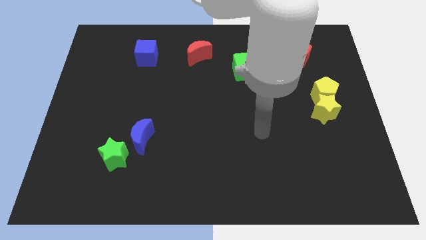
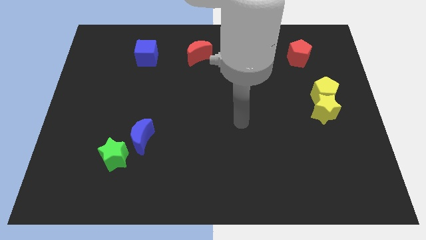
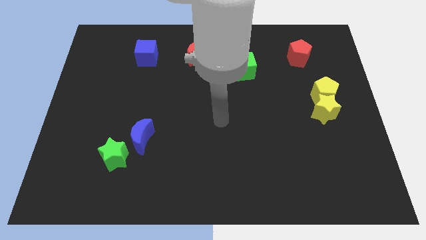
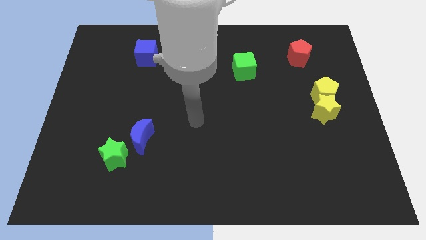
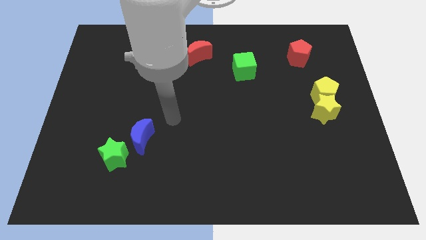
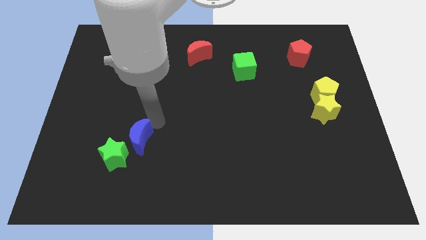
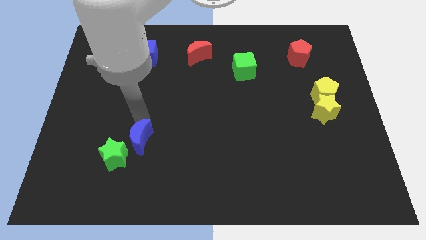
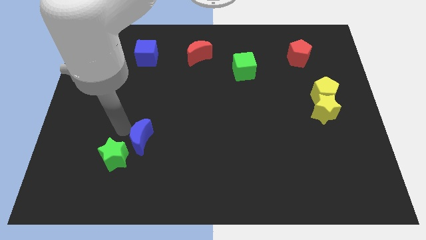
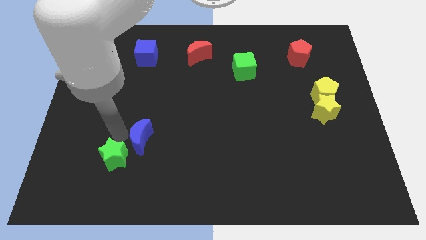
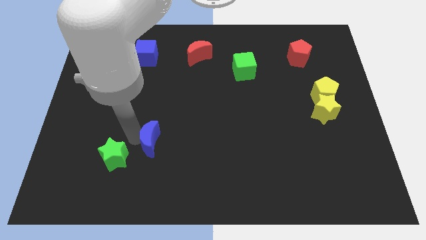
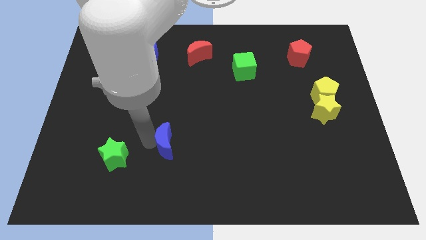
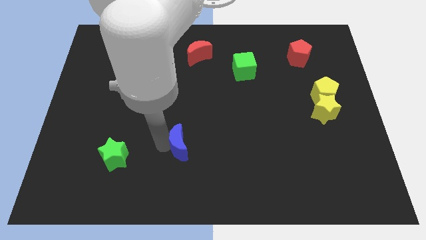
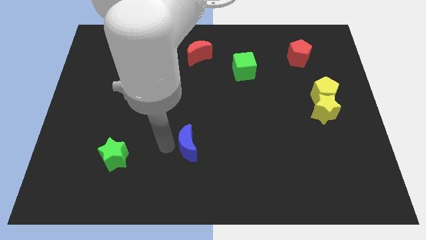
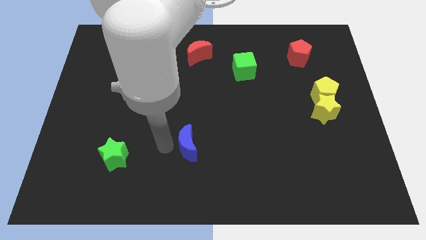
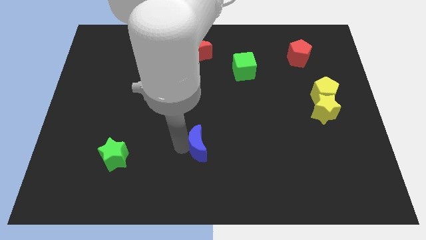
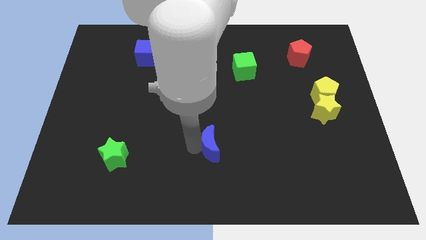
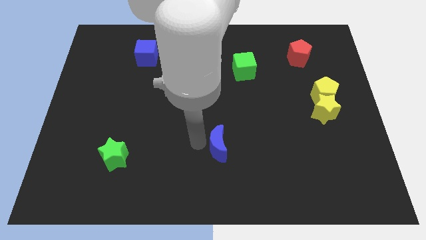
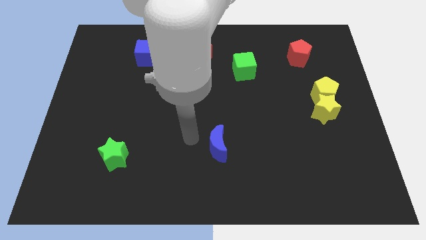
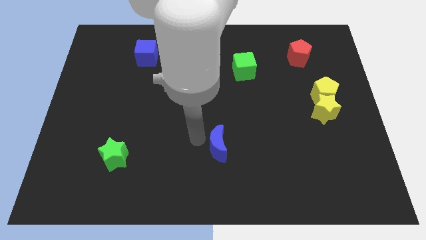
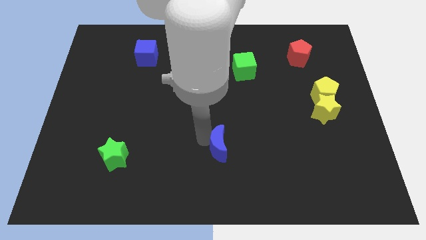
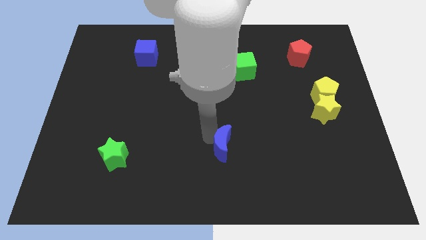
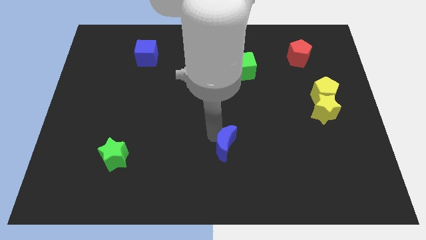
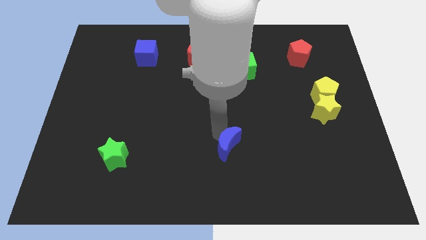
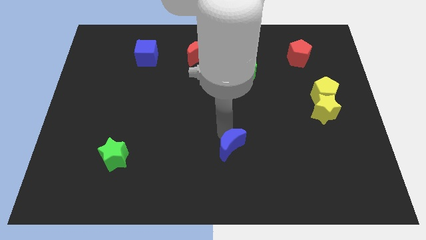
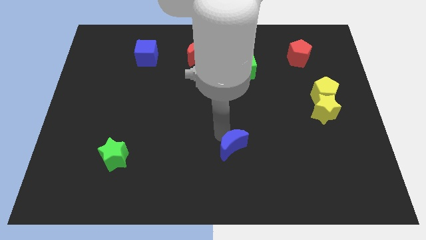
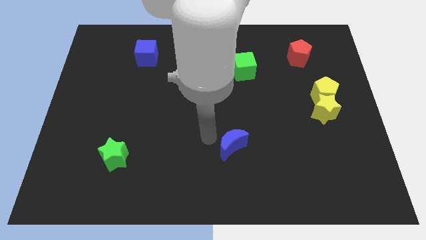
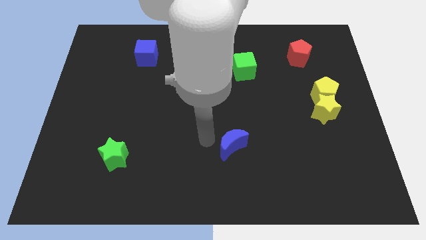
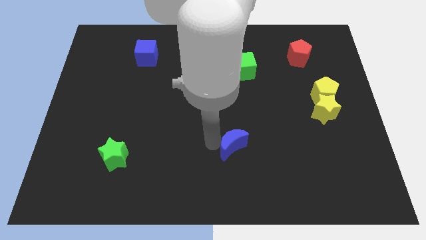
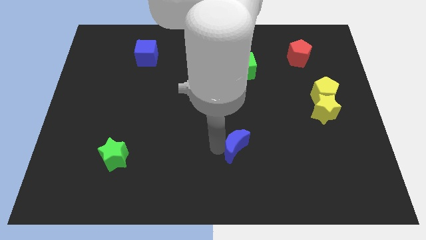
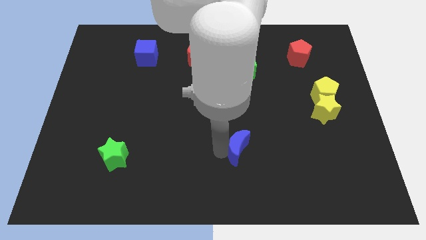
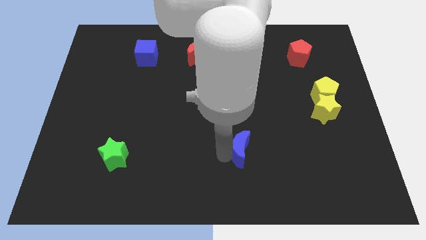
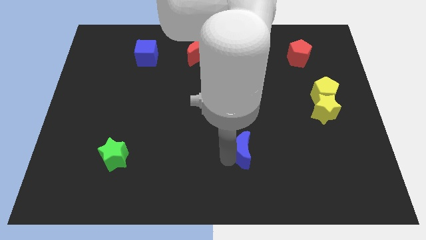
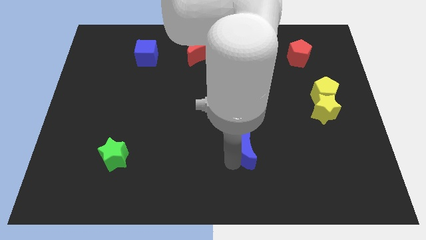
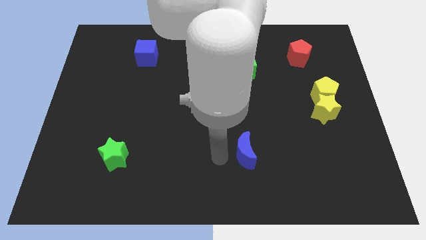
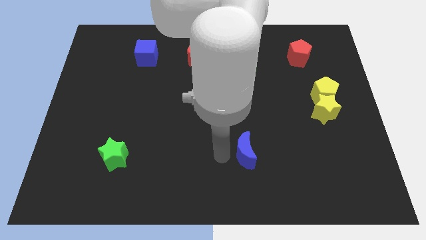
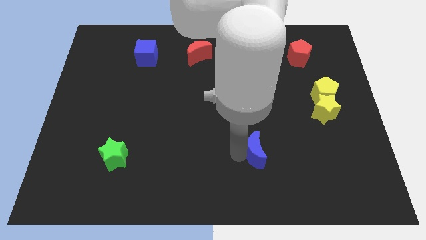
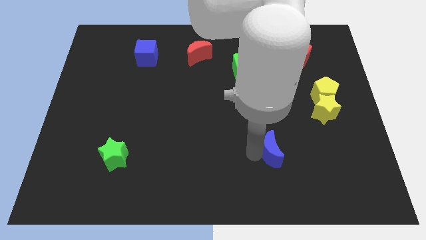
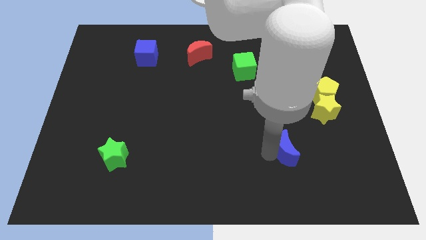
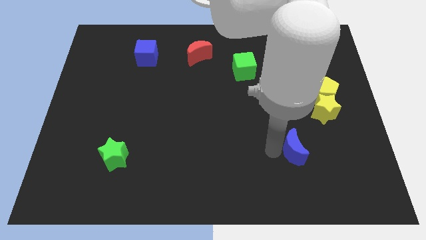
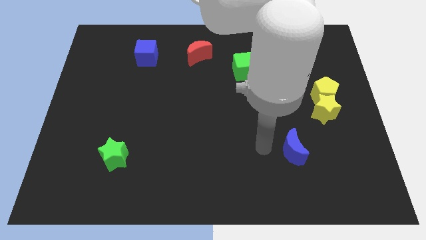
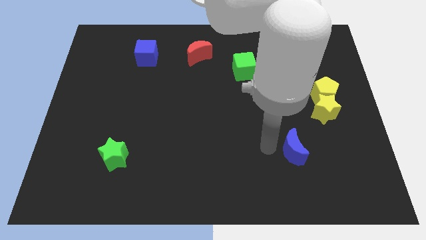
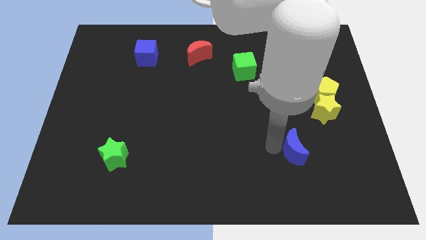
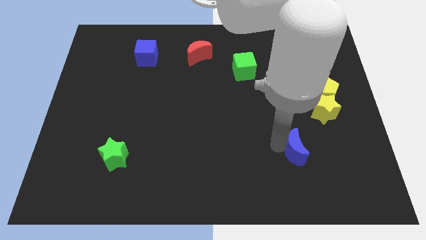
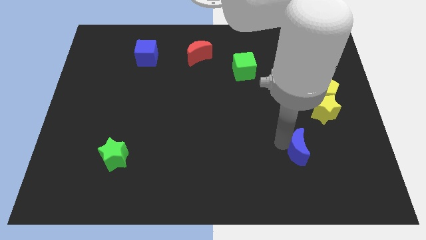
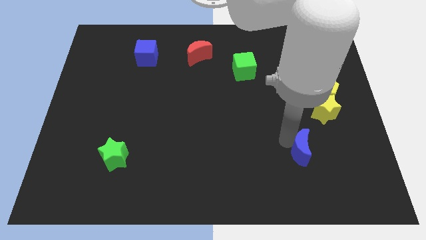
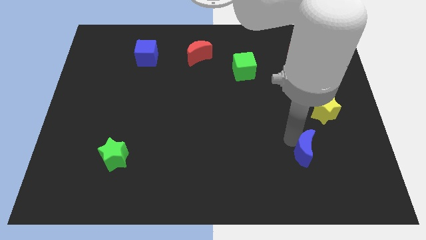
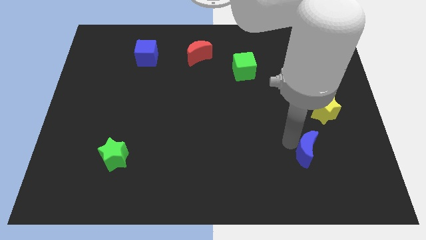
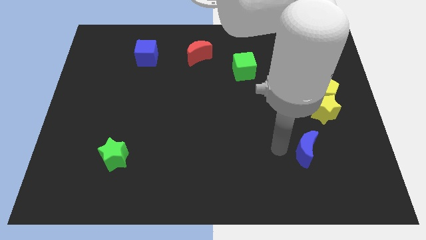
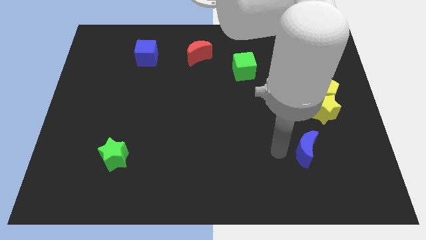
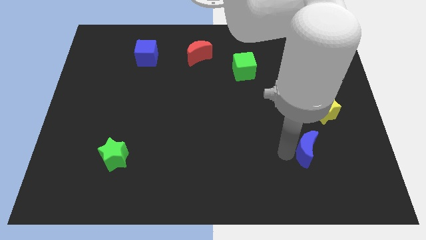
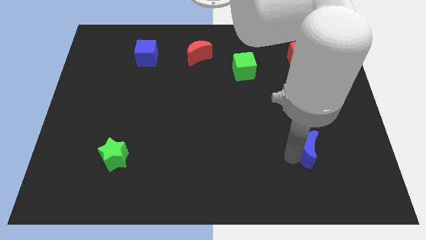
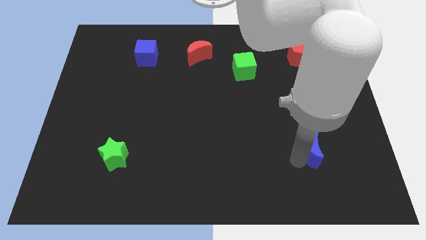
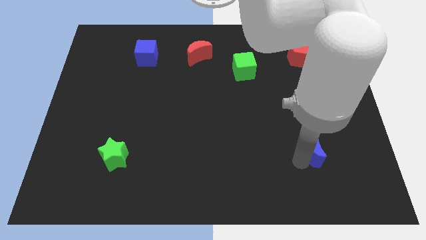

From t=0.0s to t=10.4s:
slide the blue moon to the bottom of the yellow star

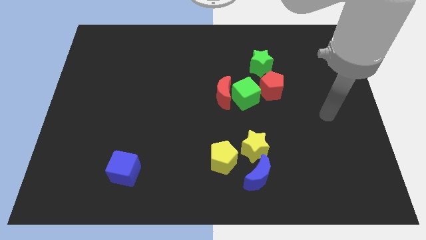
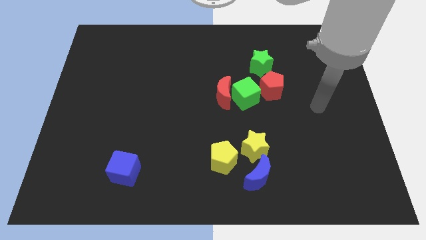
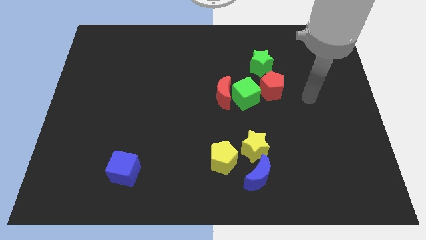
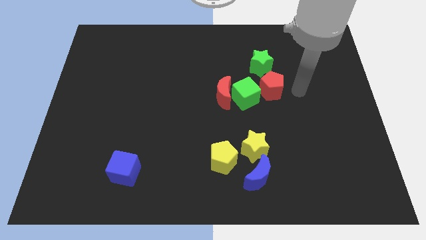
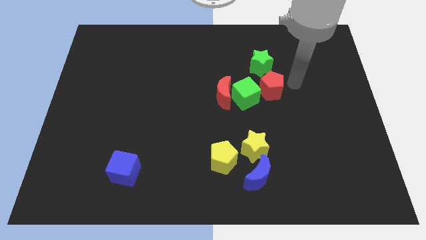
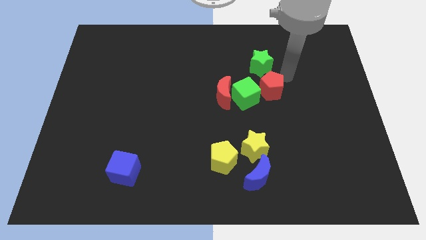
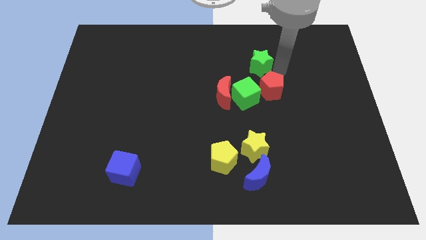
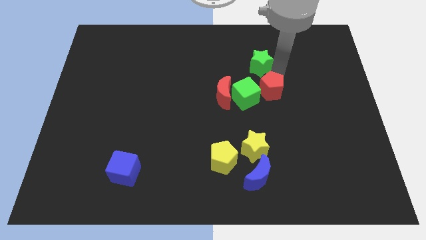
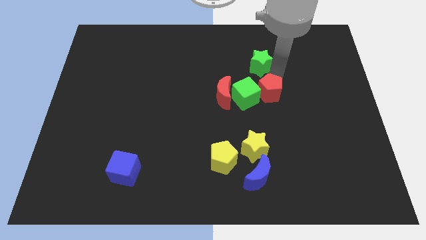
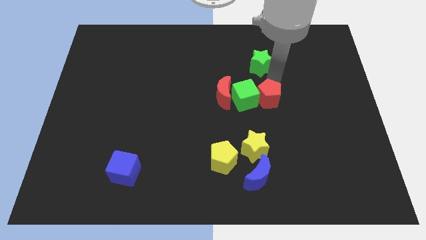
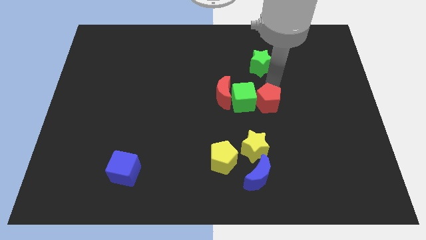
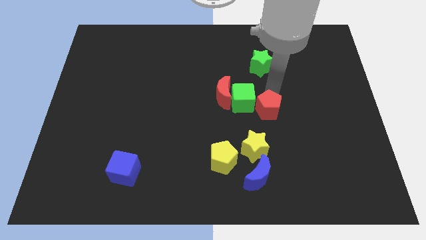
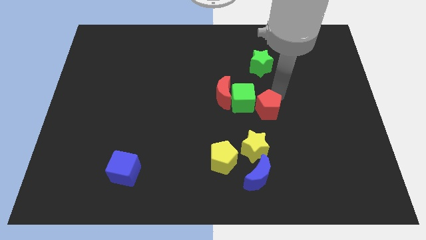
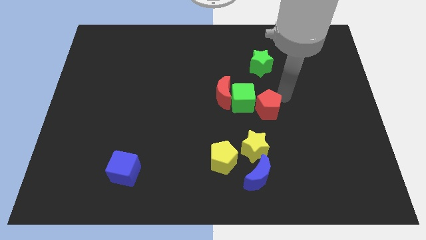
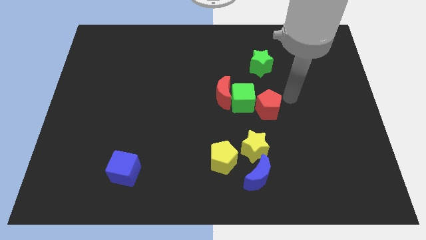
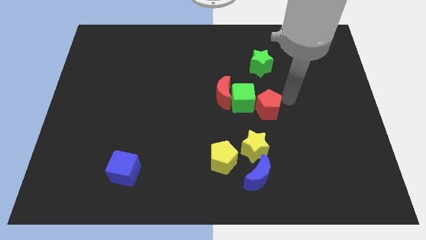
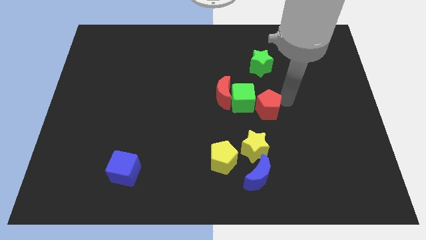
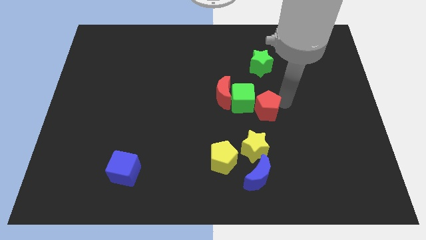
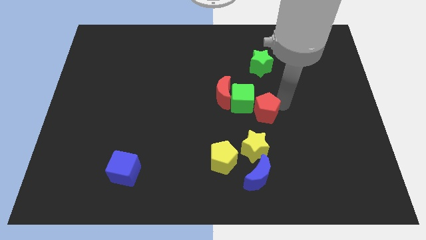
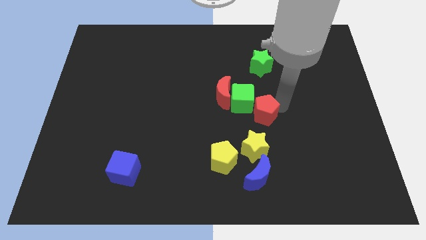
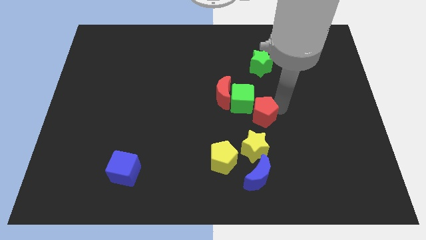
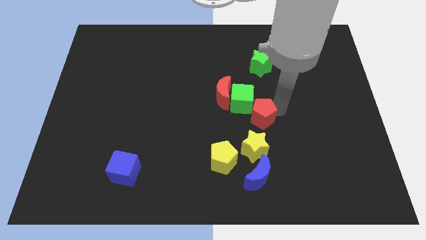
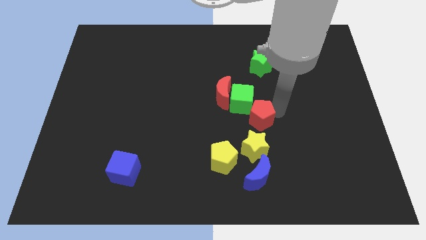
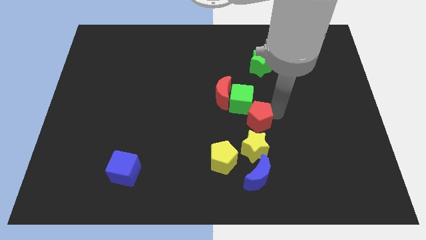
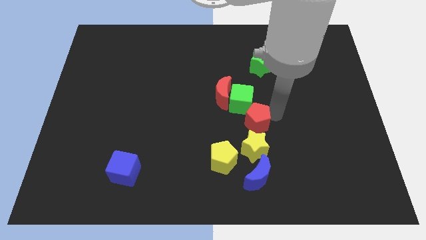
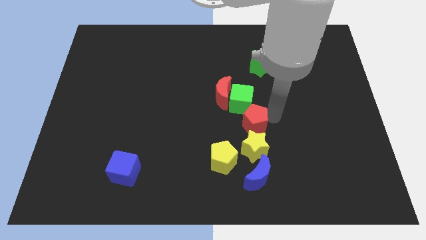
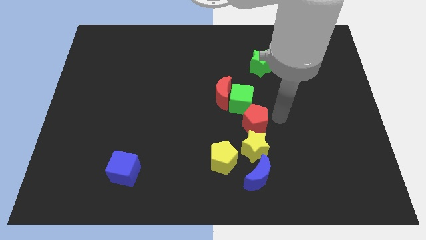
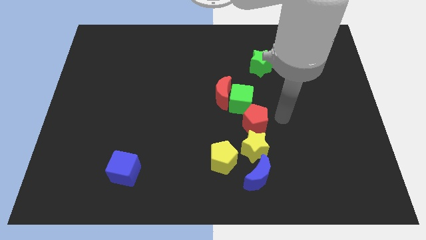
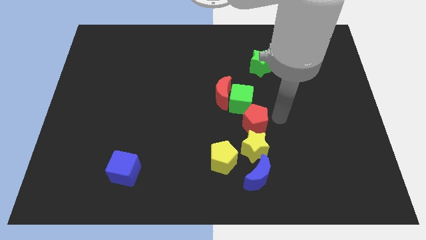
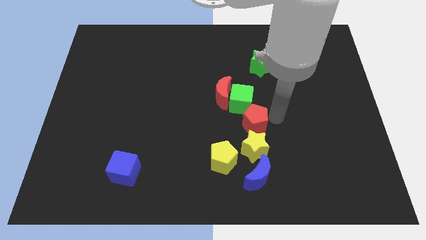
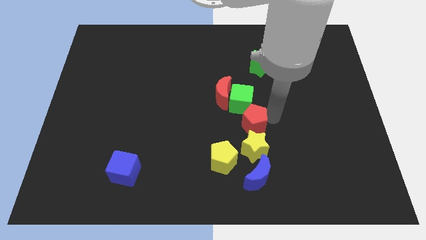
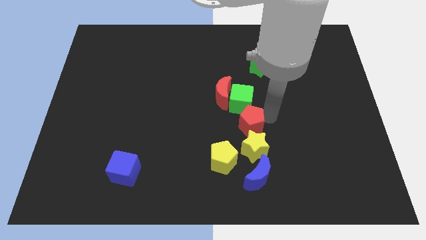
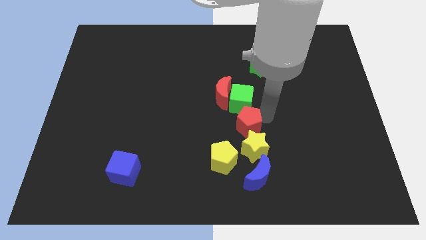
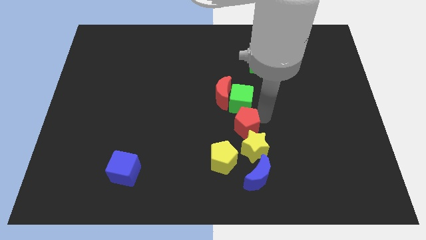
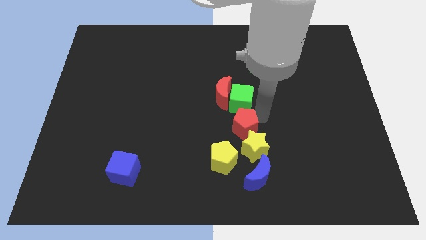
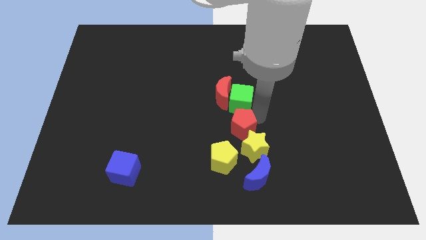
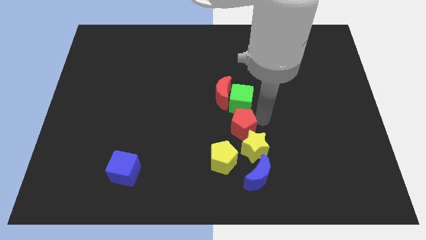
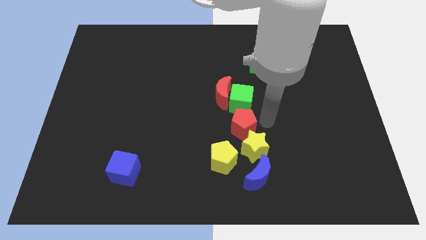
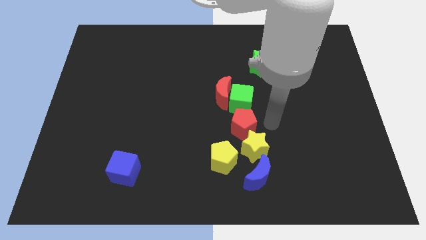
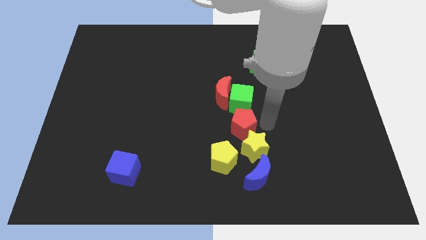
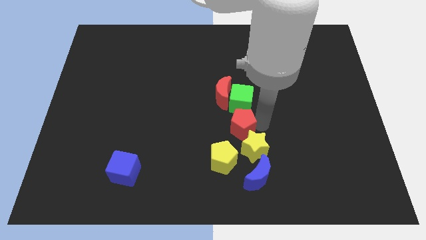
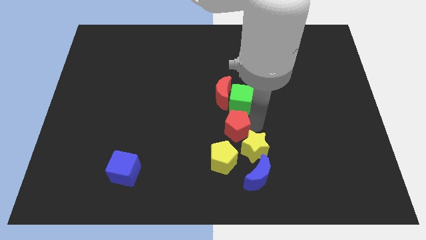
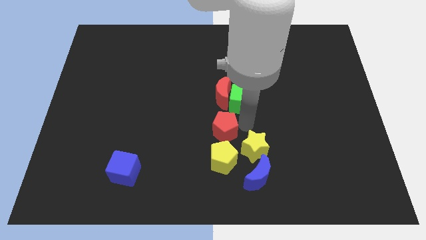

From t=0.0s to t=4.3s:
push the red pentagon to the left of the yellow star
